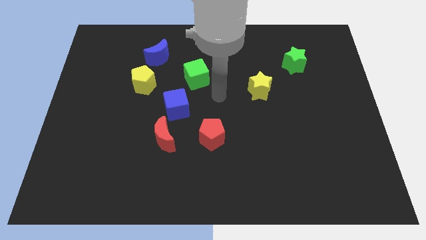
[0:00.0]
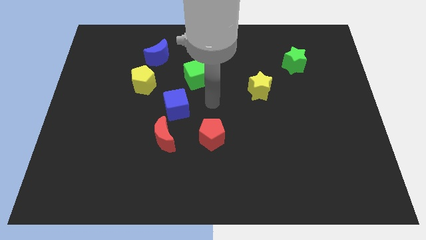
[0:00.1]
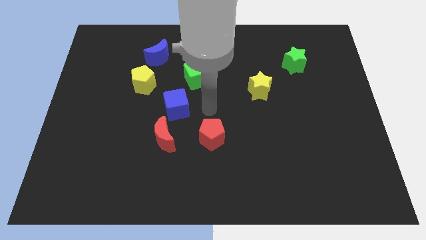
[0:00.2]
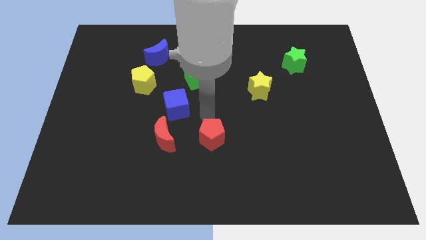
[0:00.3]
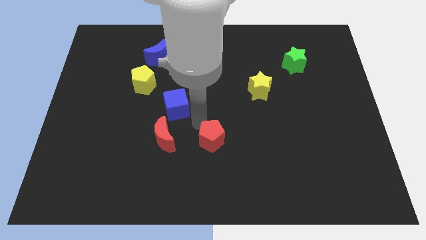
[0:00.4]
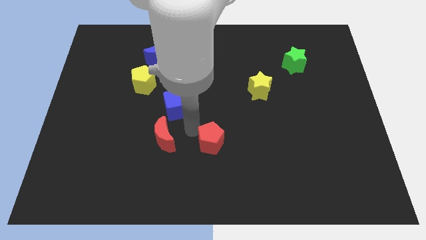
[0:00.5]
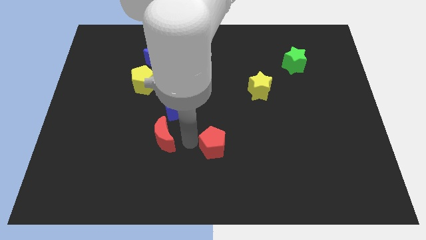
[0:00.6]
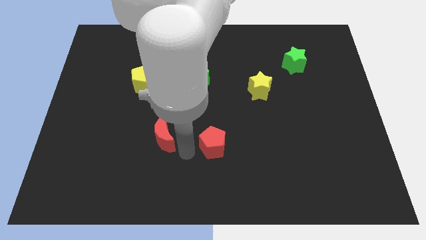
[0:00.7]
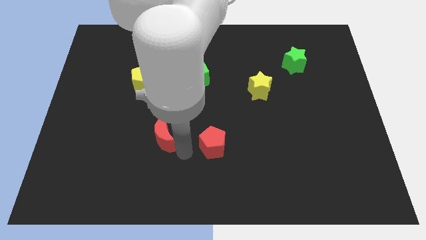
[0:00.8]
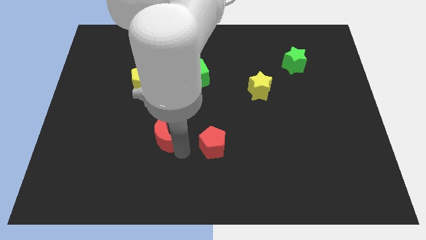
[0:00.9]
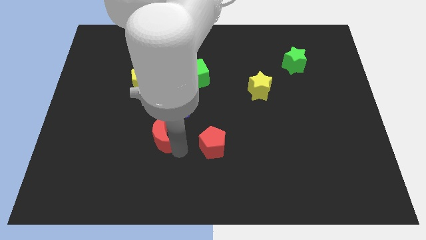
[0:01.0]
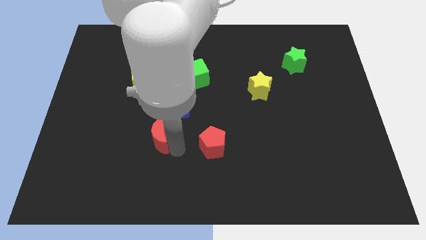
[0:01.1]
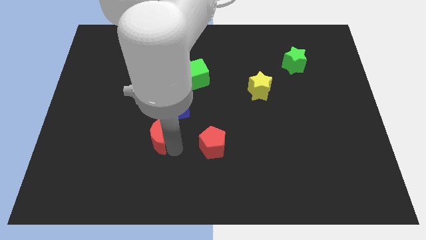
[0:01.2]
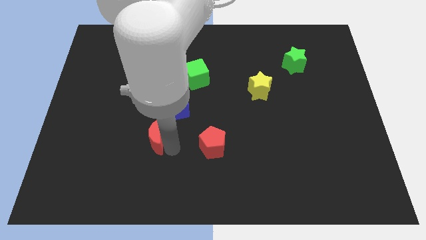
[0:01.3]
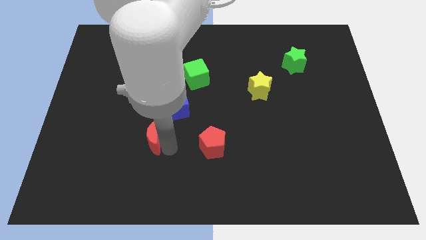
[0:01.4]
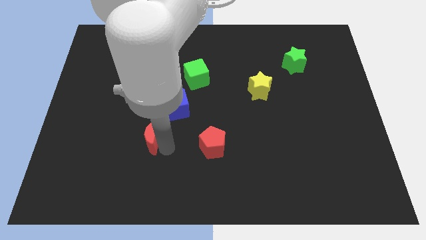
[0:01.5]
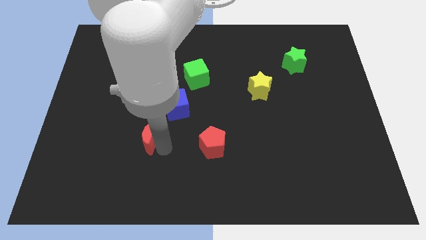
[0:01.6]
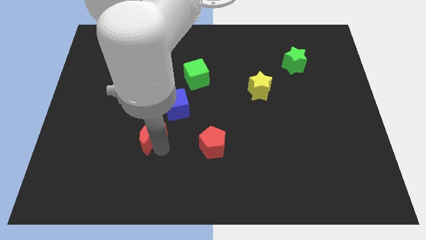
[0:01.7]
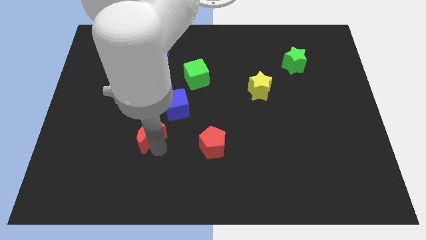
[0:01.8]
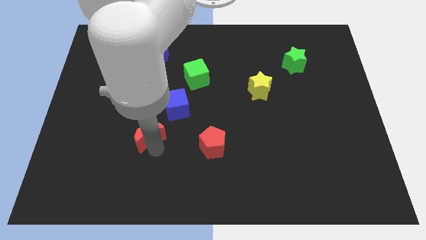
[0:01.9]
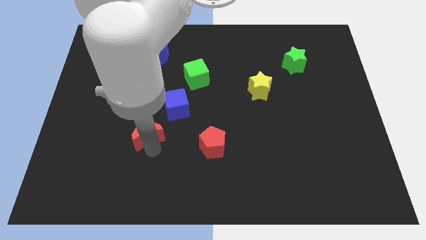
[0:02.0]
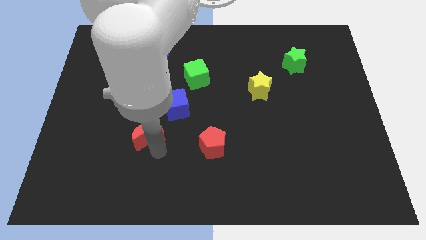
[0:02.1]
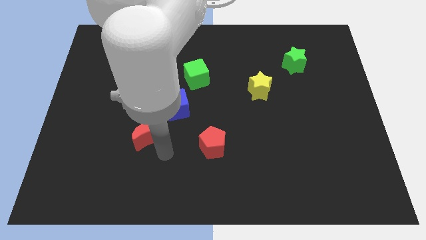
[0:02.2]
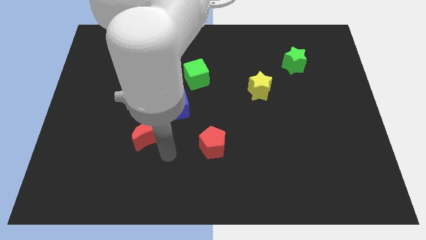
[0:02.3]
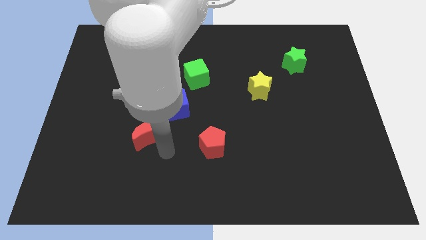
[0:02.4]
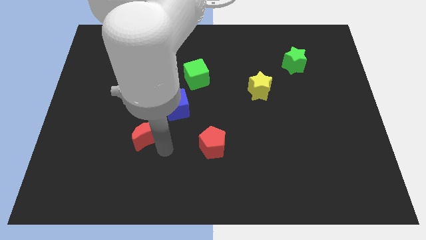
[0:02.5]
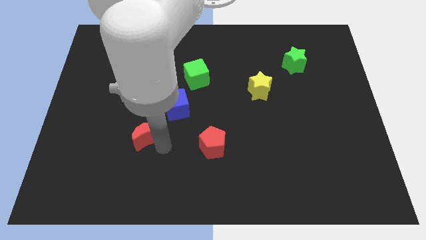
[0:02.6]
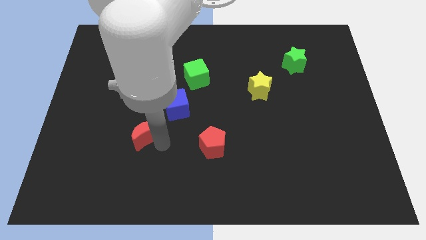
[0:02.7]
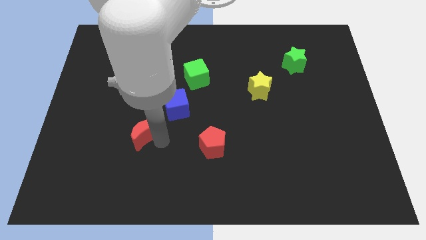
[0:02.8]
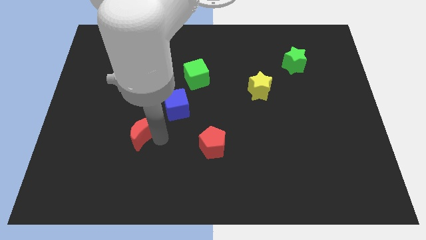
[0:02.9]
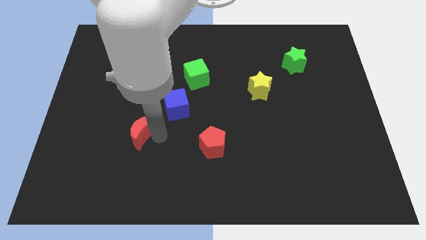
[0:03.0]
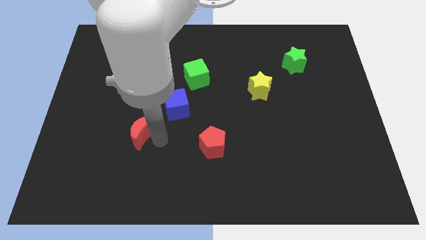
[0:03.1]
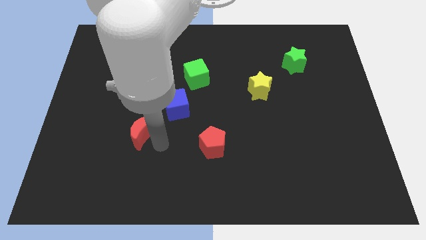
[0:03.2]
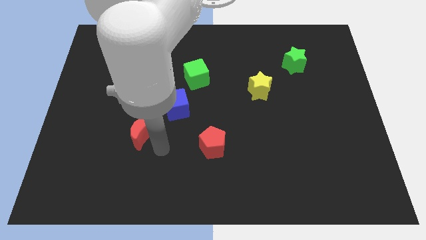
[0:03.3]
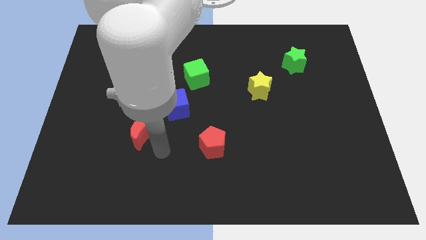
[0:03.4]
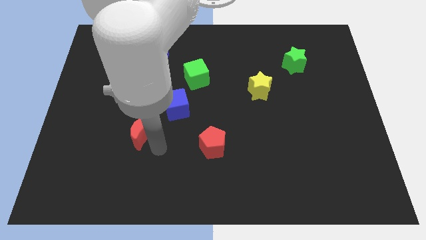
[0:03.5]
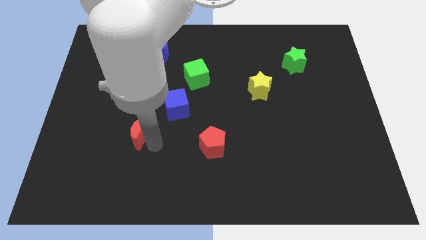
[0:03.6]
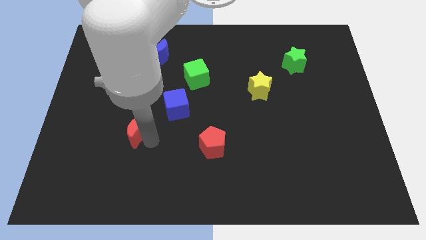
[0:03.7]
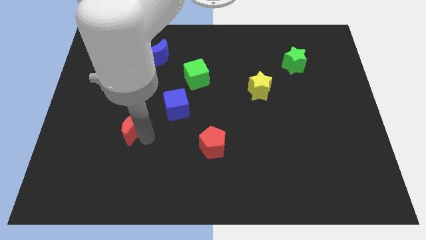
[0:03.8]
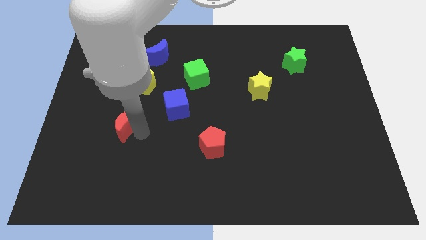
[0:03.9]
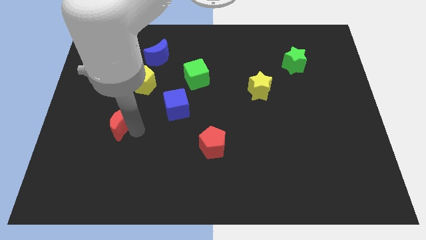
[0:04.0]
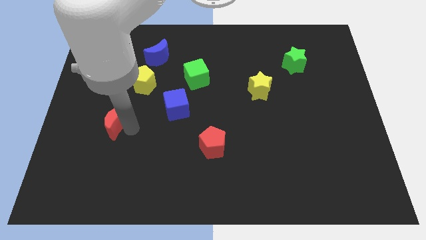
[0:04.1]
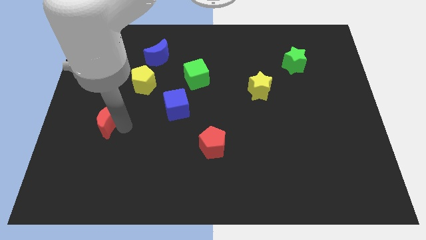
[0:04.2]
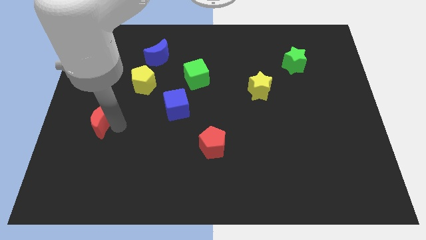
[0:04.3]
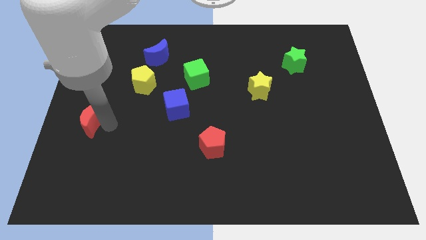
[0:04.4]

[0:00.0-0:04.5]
put the red moon to the center left

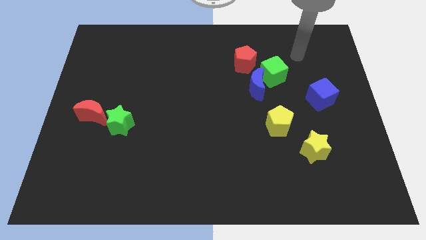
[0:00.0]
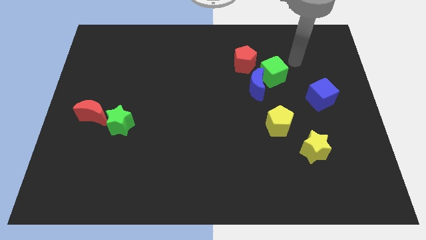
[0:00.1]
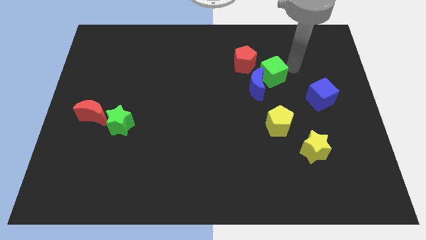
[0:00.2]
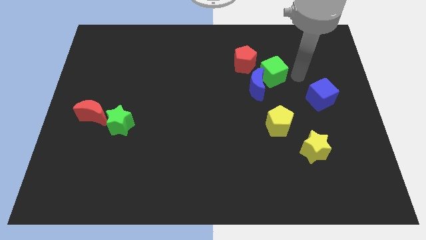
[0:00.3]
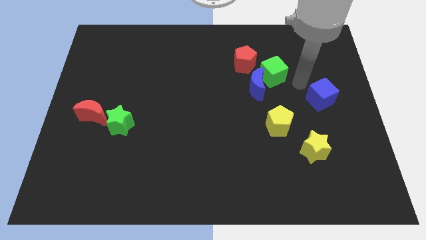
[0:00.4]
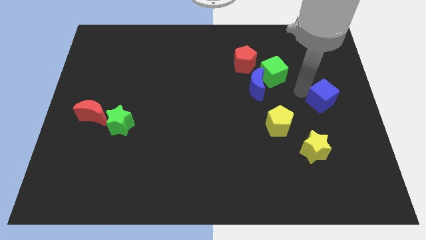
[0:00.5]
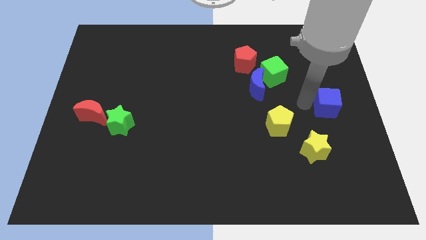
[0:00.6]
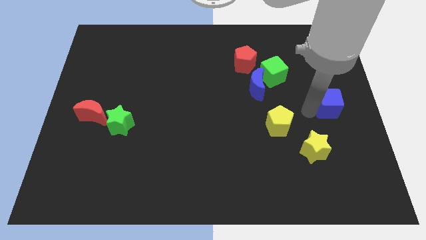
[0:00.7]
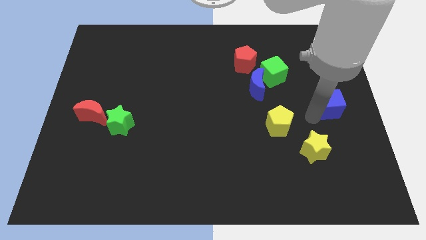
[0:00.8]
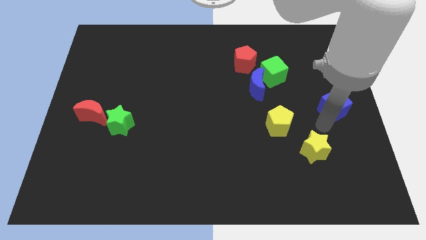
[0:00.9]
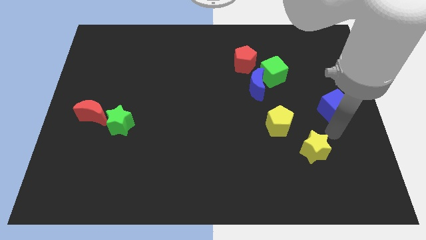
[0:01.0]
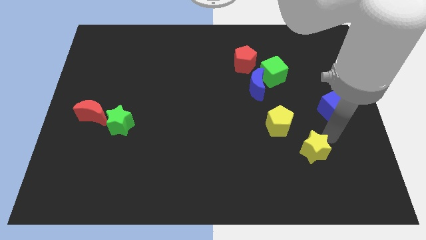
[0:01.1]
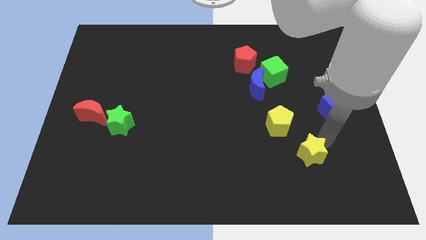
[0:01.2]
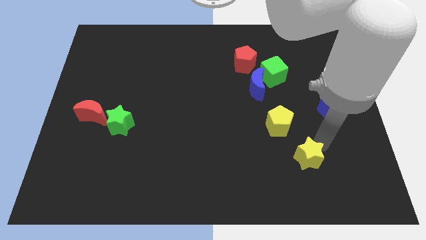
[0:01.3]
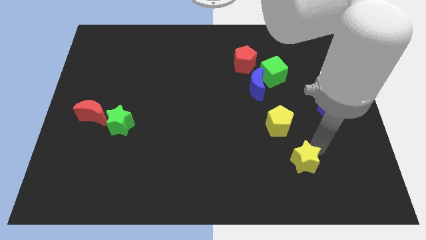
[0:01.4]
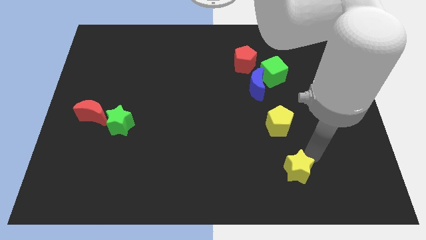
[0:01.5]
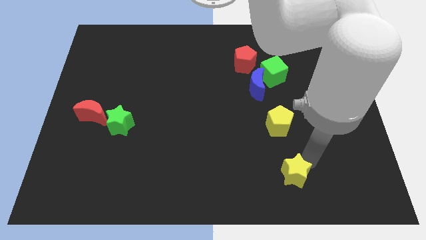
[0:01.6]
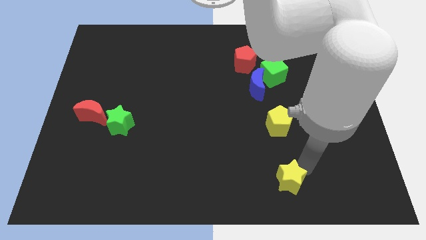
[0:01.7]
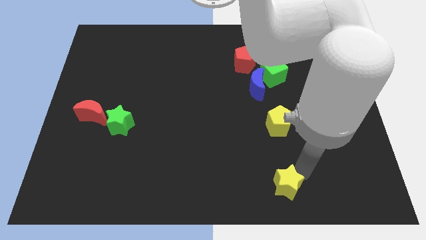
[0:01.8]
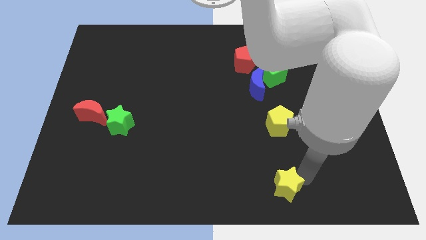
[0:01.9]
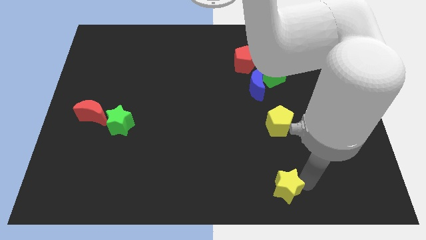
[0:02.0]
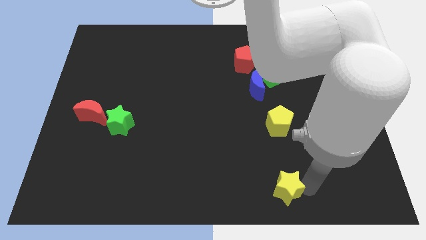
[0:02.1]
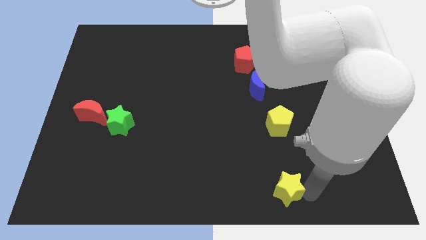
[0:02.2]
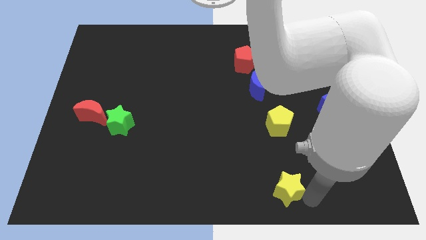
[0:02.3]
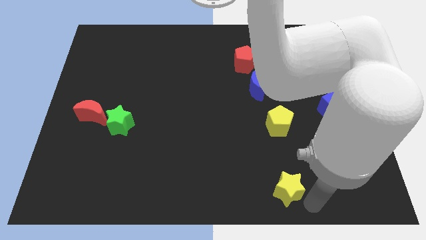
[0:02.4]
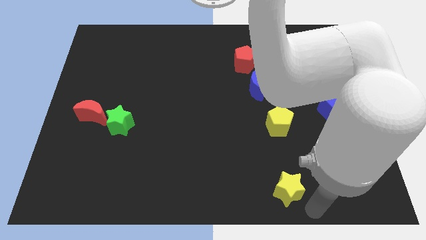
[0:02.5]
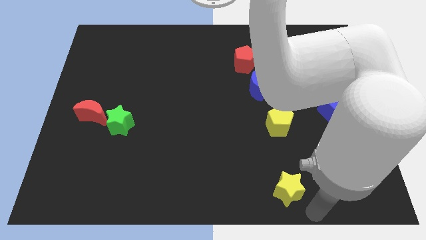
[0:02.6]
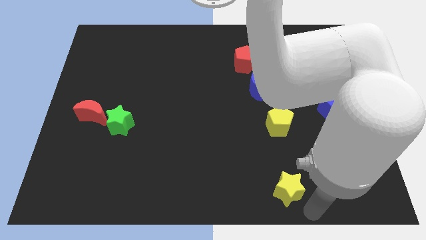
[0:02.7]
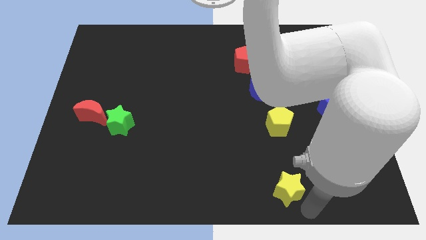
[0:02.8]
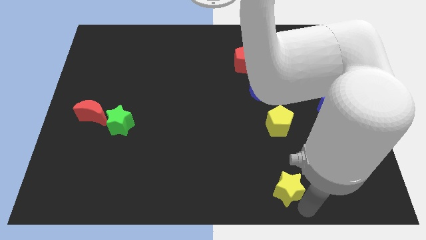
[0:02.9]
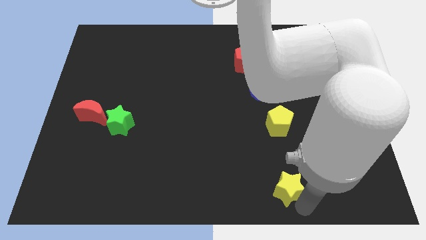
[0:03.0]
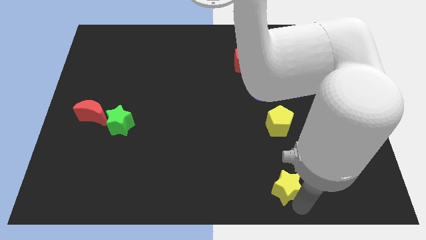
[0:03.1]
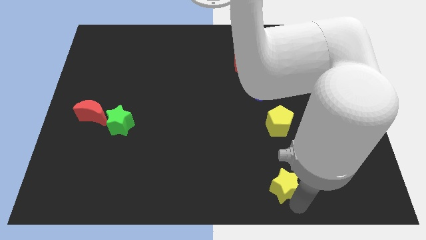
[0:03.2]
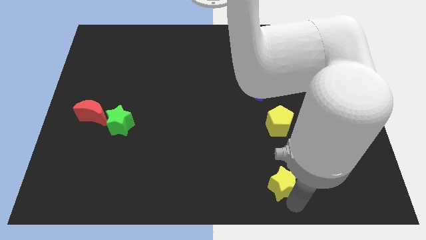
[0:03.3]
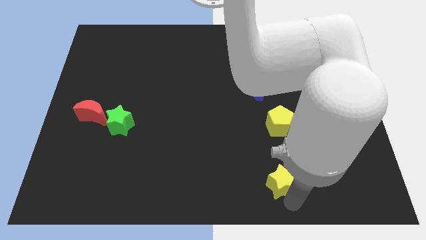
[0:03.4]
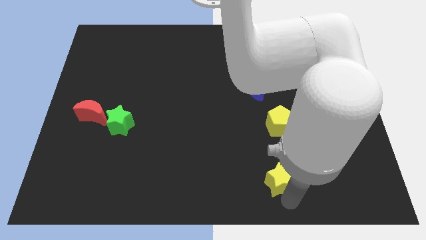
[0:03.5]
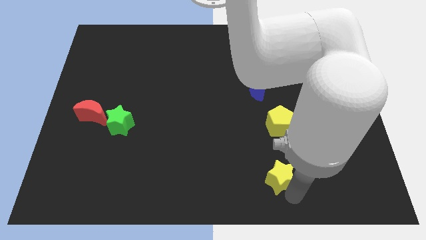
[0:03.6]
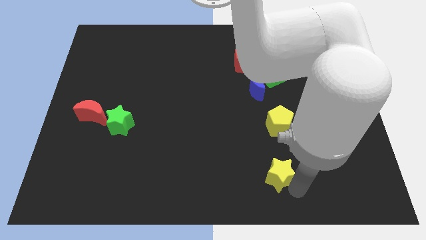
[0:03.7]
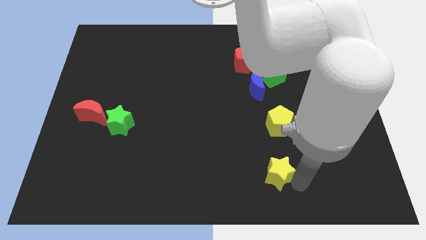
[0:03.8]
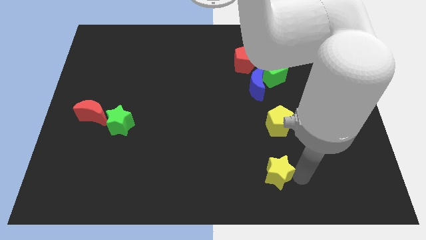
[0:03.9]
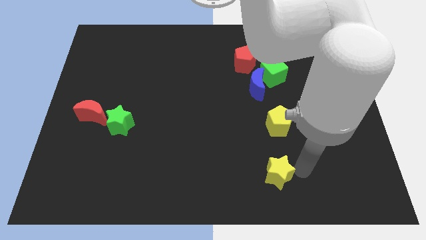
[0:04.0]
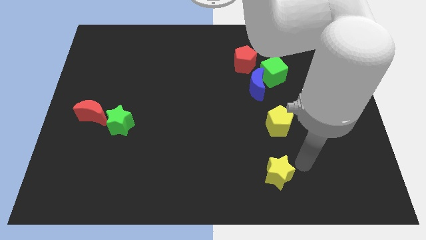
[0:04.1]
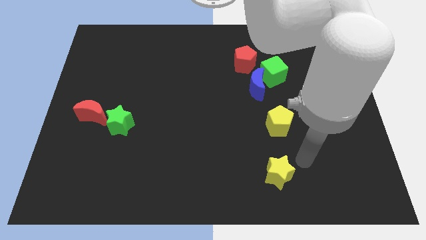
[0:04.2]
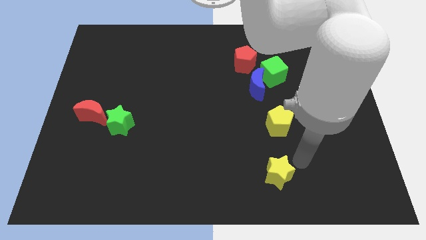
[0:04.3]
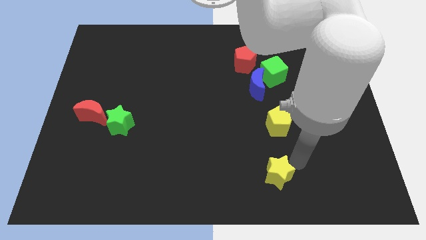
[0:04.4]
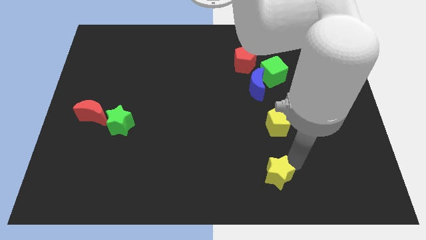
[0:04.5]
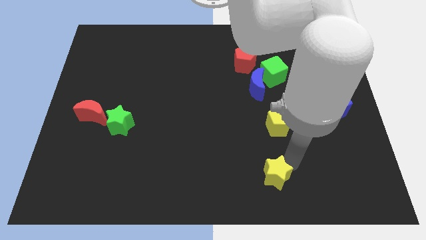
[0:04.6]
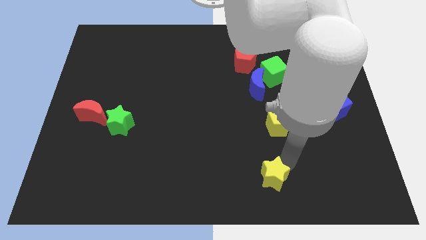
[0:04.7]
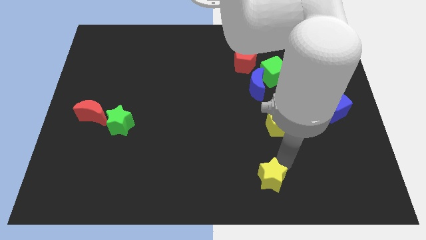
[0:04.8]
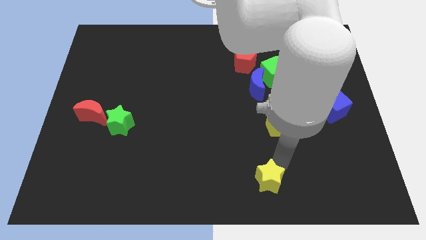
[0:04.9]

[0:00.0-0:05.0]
slide the yellow star to the bottom
